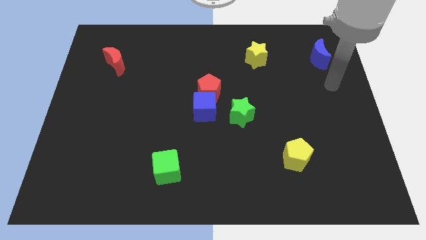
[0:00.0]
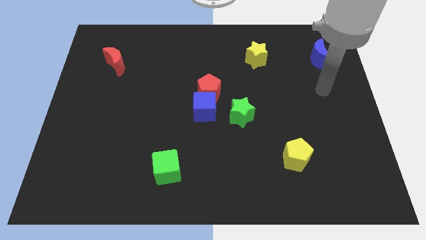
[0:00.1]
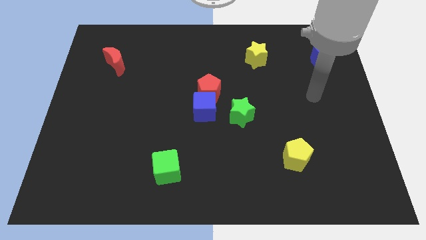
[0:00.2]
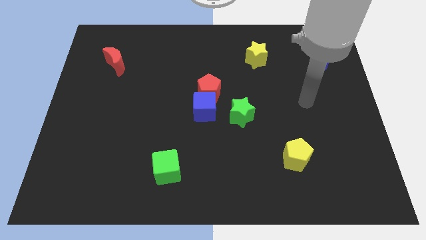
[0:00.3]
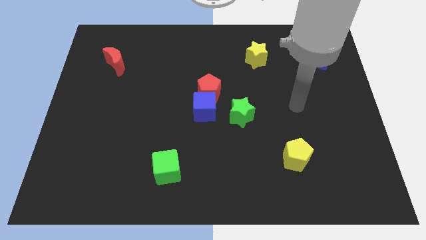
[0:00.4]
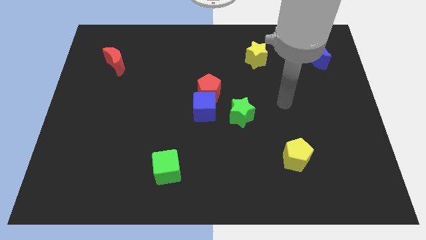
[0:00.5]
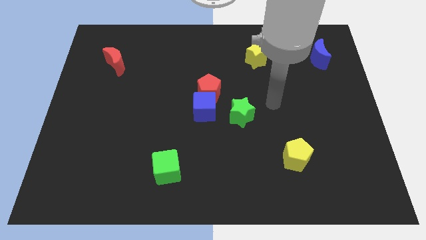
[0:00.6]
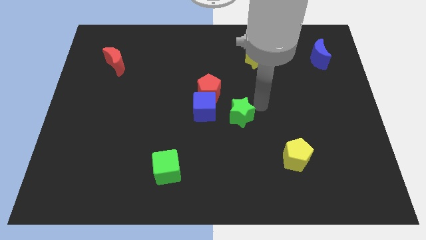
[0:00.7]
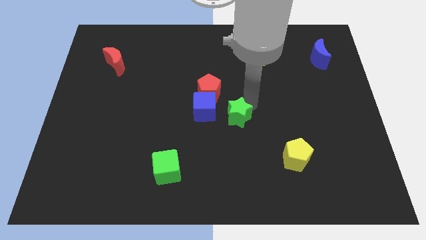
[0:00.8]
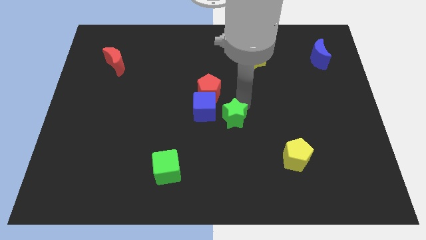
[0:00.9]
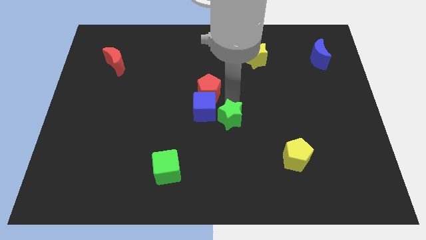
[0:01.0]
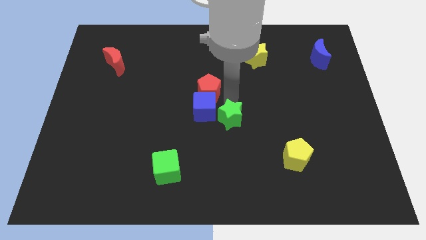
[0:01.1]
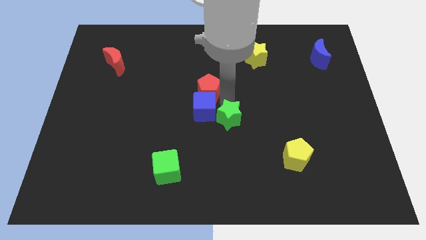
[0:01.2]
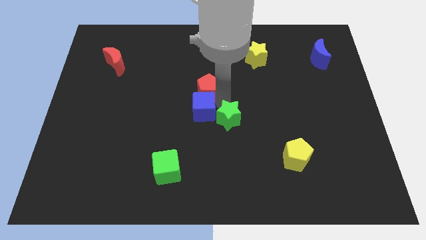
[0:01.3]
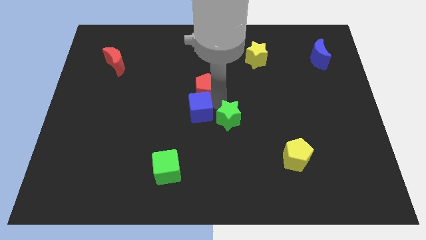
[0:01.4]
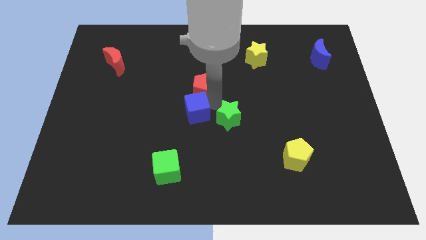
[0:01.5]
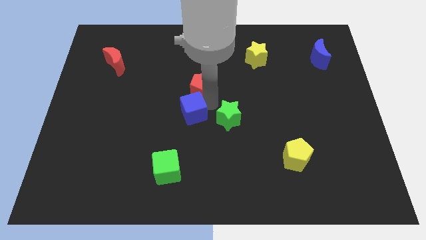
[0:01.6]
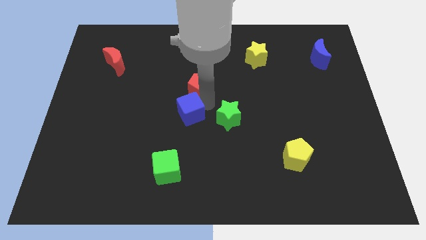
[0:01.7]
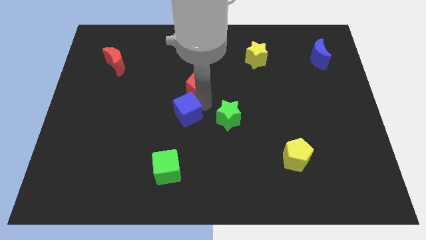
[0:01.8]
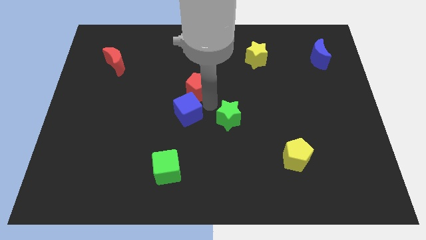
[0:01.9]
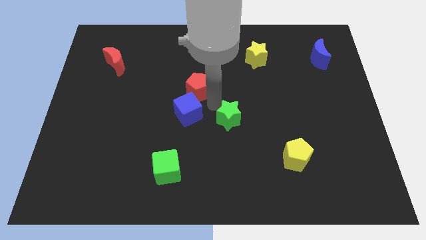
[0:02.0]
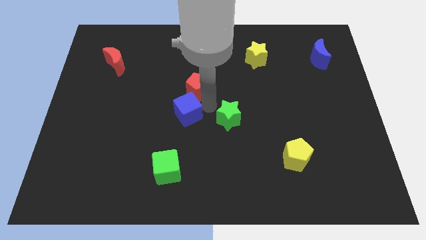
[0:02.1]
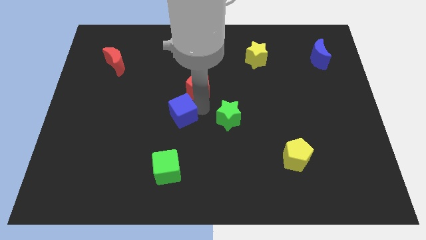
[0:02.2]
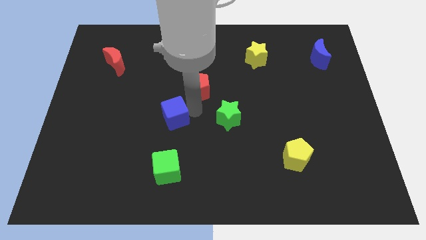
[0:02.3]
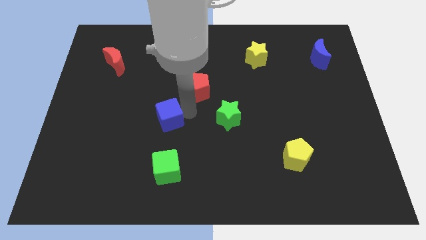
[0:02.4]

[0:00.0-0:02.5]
separate the blue cube from the red pentagon and green star

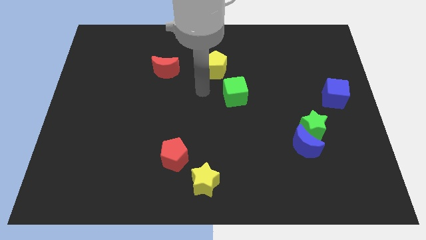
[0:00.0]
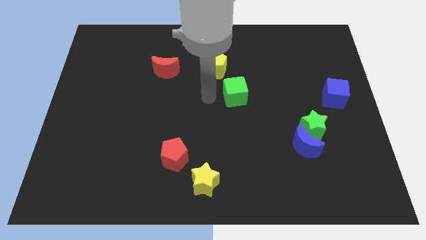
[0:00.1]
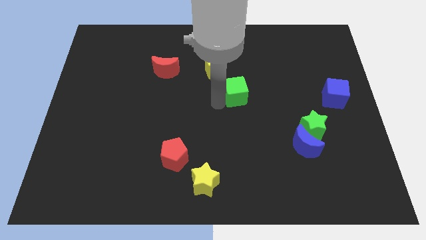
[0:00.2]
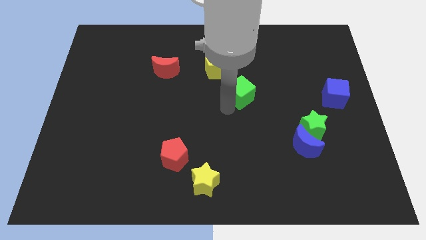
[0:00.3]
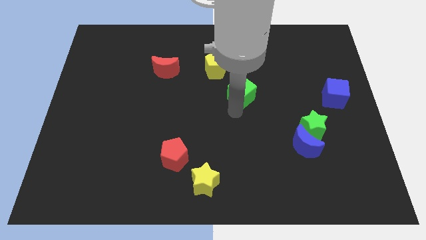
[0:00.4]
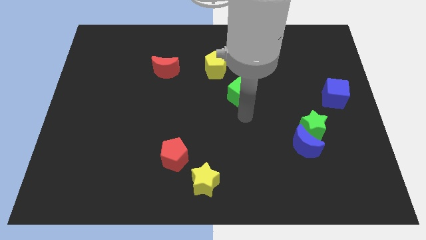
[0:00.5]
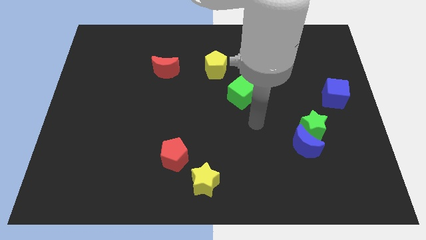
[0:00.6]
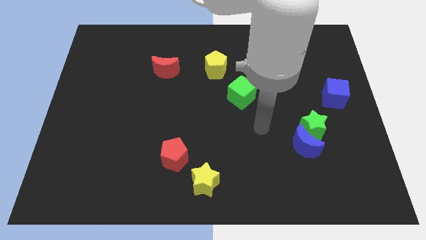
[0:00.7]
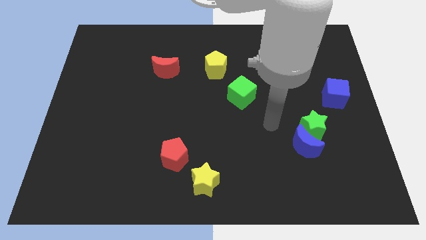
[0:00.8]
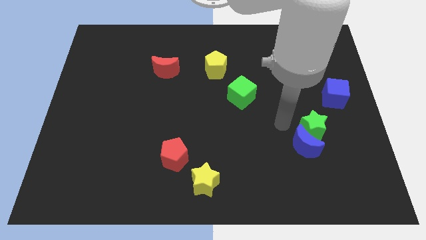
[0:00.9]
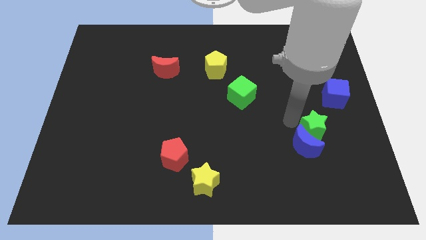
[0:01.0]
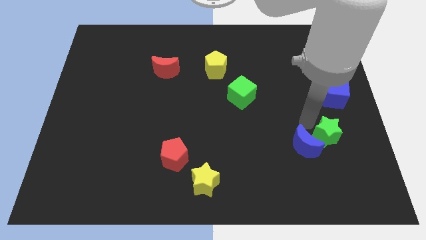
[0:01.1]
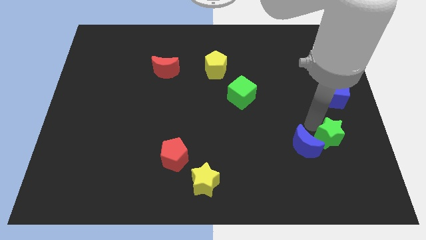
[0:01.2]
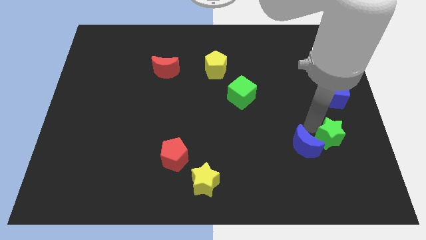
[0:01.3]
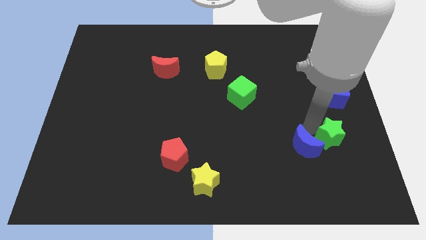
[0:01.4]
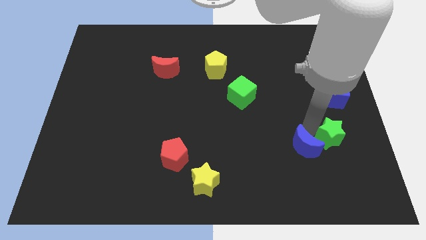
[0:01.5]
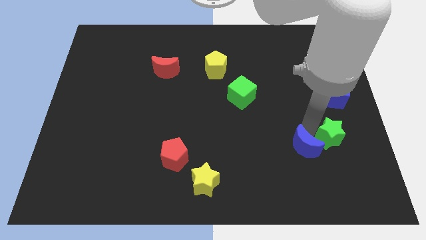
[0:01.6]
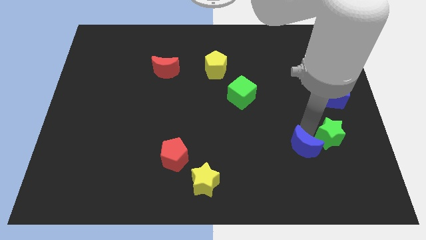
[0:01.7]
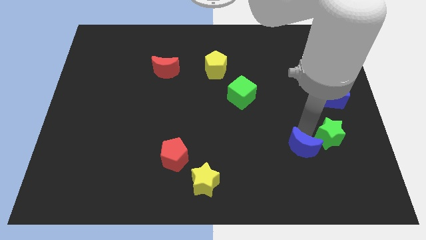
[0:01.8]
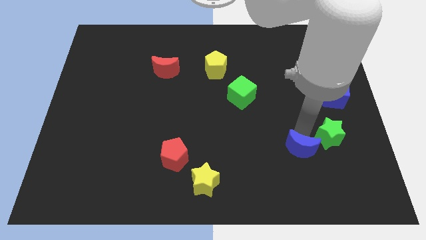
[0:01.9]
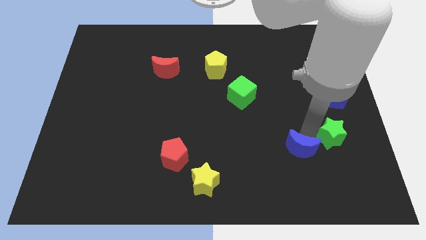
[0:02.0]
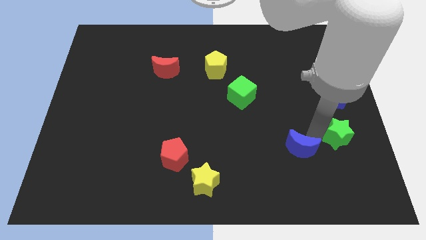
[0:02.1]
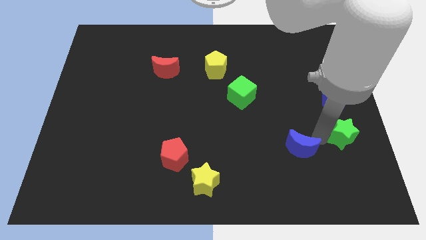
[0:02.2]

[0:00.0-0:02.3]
separate the blue moon from the green star

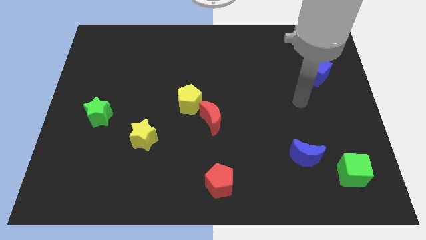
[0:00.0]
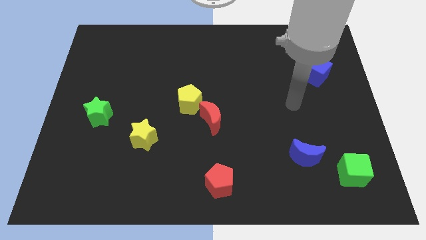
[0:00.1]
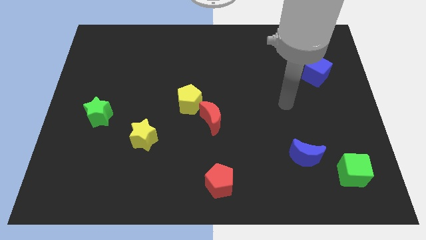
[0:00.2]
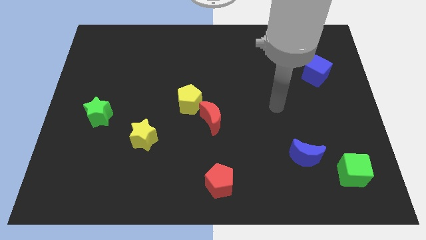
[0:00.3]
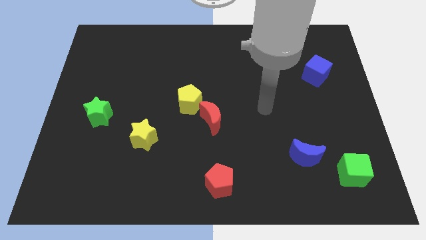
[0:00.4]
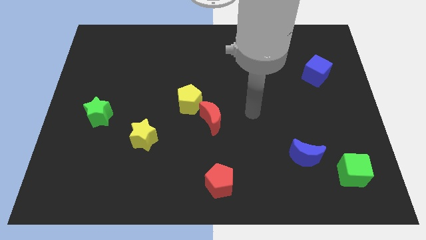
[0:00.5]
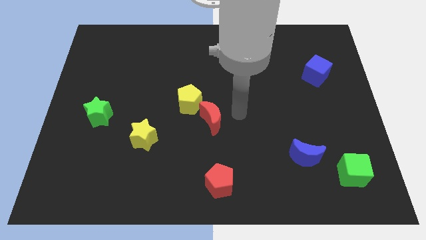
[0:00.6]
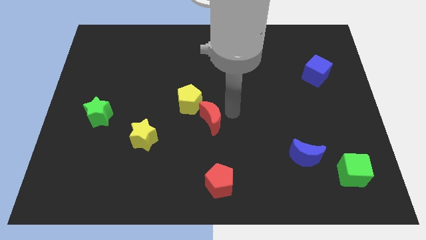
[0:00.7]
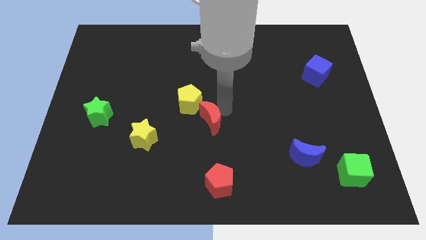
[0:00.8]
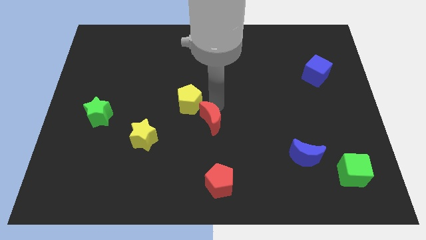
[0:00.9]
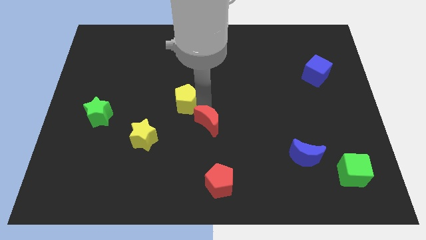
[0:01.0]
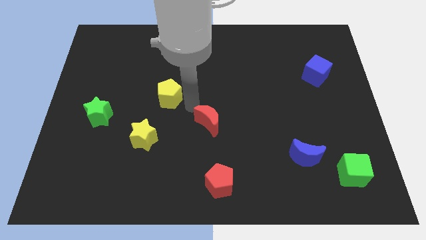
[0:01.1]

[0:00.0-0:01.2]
move the red moon away from the yellow pentagon

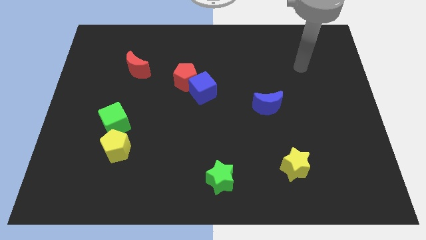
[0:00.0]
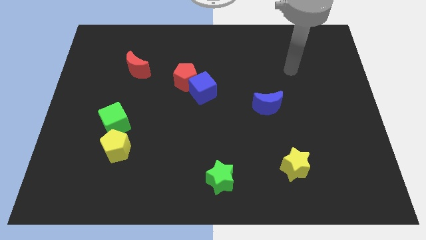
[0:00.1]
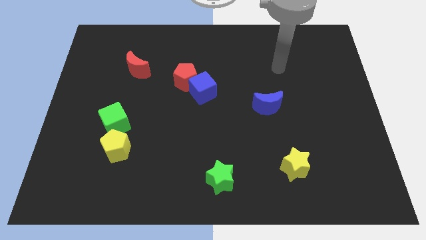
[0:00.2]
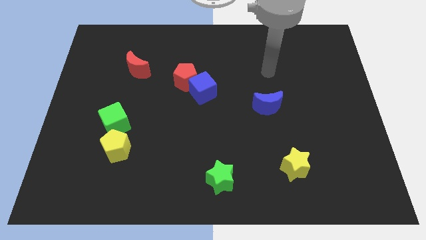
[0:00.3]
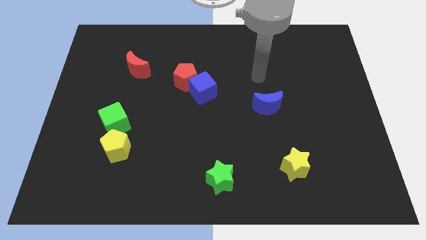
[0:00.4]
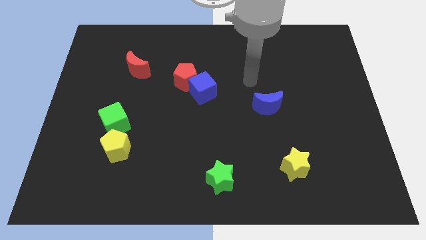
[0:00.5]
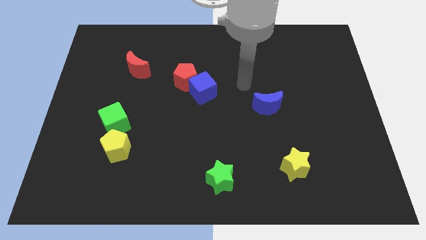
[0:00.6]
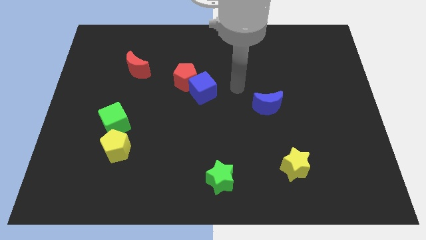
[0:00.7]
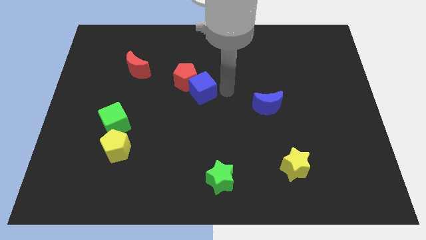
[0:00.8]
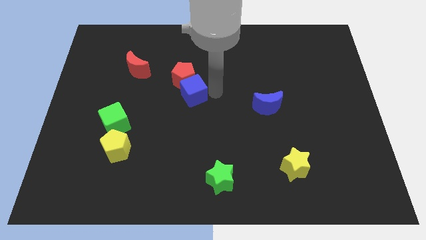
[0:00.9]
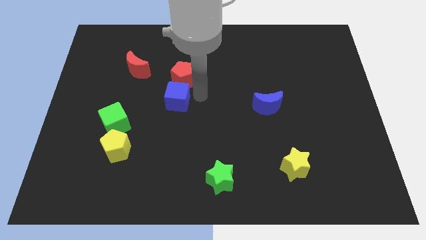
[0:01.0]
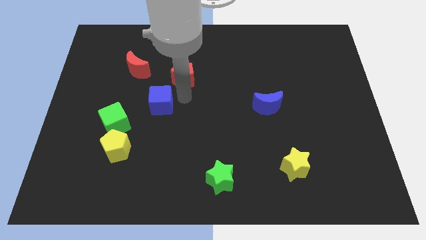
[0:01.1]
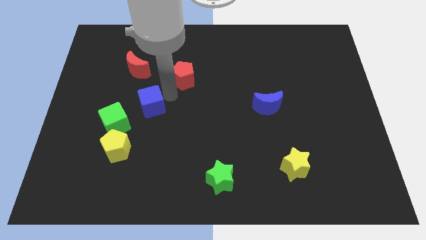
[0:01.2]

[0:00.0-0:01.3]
move the red pentagon away from the blue cube

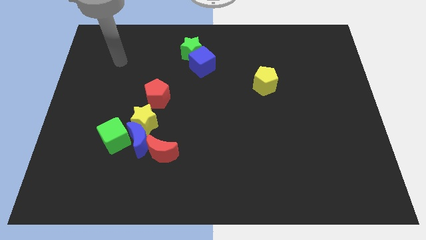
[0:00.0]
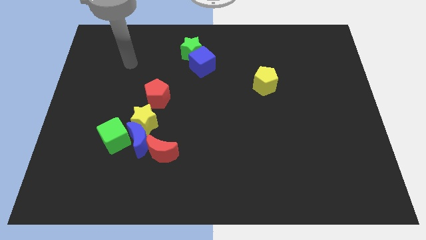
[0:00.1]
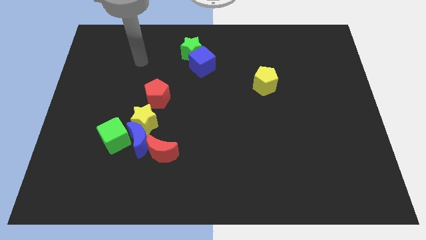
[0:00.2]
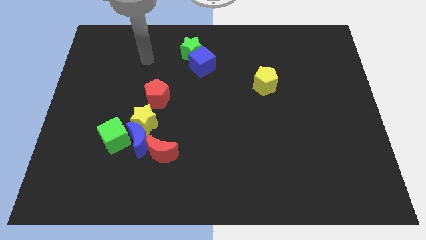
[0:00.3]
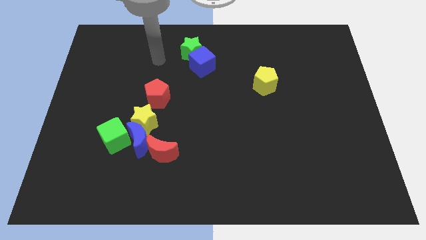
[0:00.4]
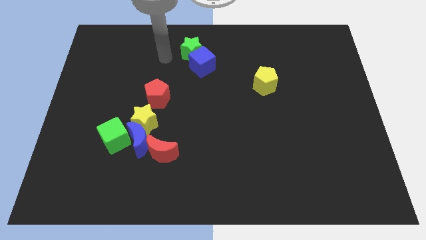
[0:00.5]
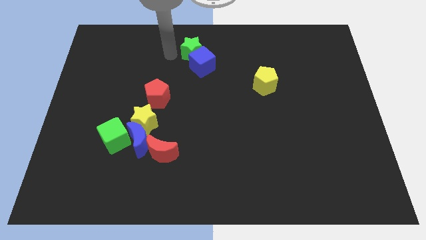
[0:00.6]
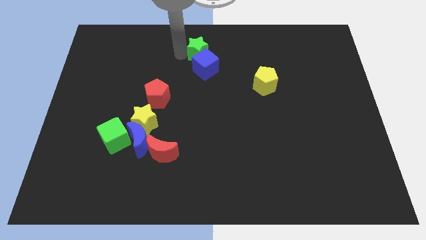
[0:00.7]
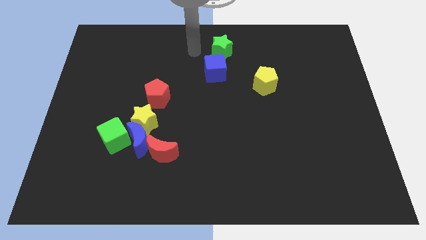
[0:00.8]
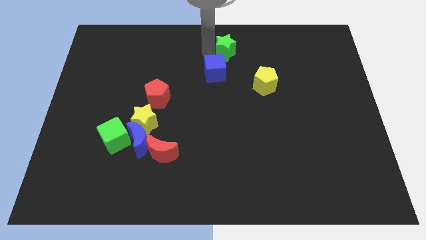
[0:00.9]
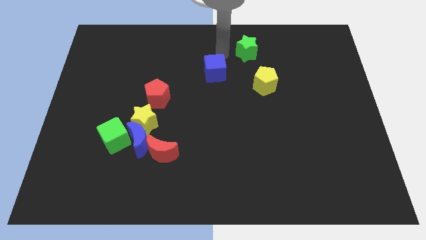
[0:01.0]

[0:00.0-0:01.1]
move the blue cube away from the green star

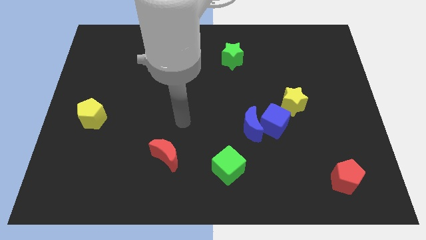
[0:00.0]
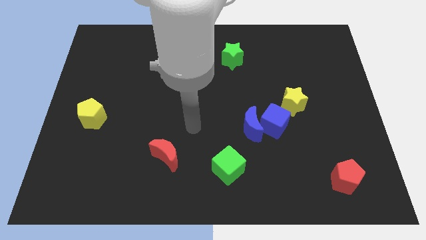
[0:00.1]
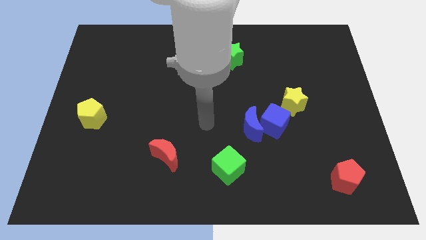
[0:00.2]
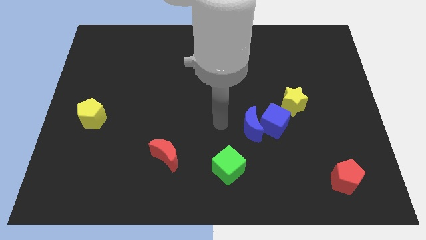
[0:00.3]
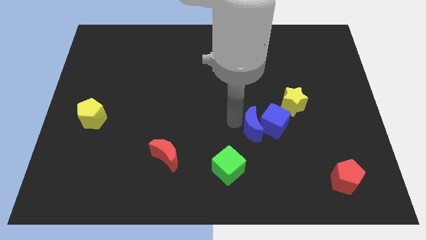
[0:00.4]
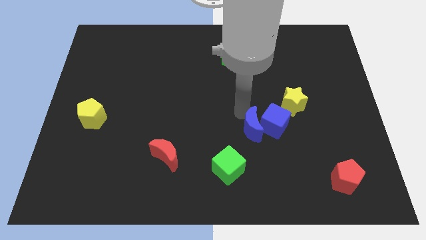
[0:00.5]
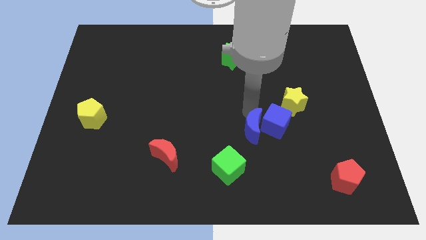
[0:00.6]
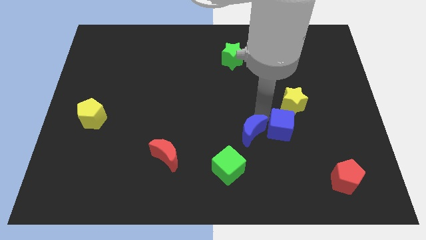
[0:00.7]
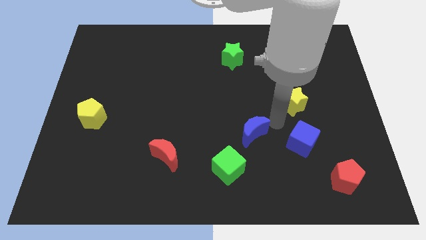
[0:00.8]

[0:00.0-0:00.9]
pull the blue moon apart from the blue cube
